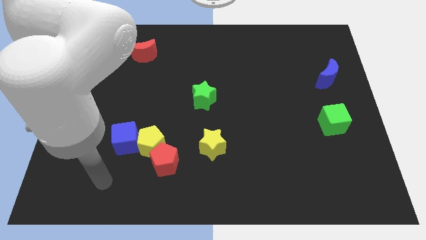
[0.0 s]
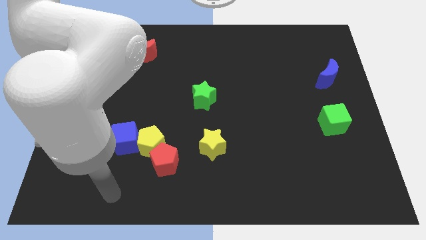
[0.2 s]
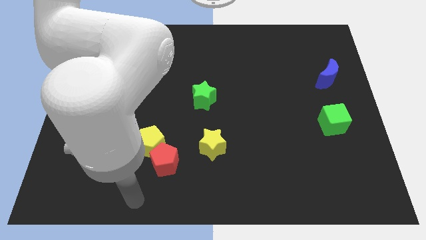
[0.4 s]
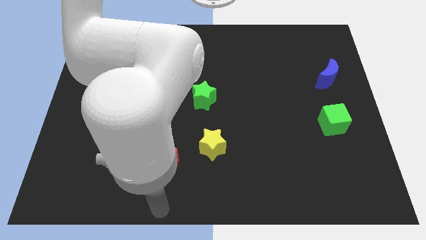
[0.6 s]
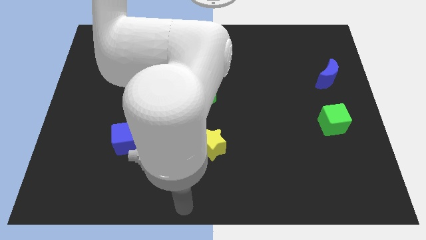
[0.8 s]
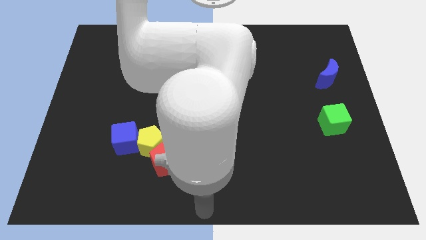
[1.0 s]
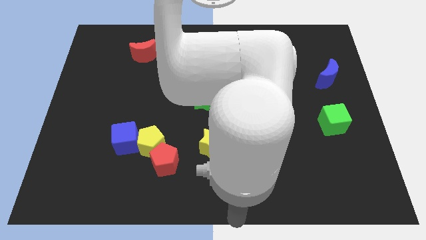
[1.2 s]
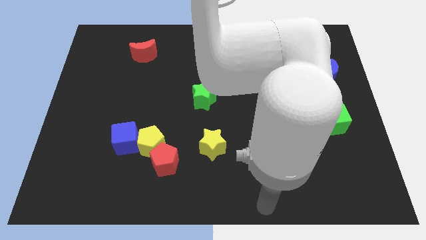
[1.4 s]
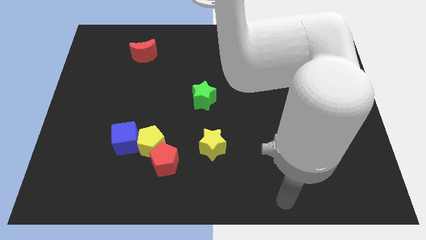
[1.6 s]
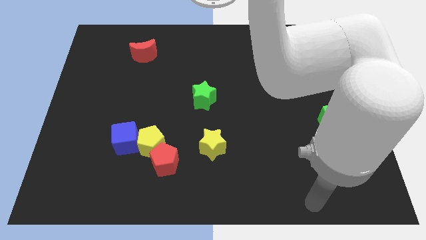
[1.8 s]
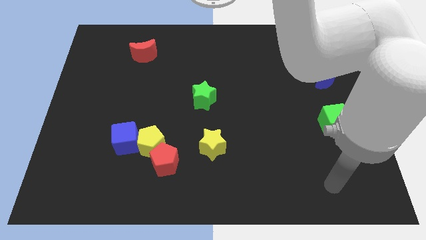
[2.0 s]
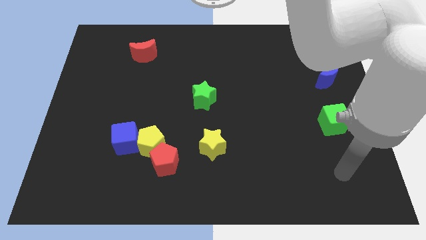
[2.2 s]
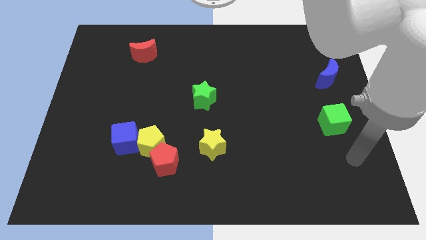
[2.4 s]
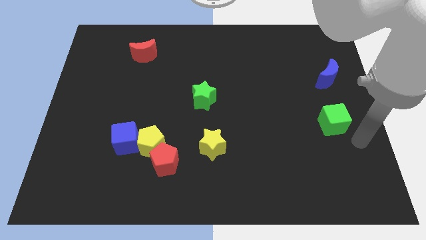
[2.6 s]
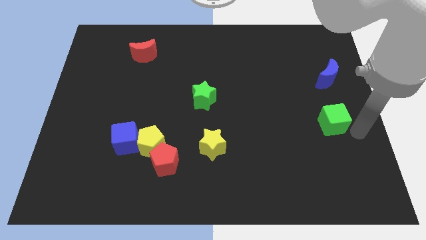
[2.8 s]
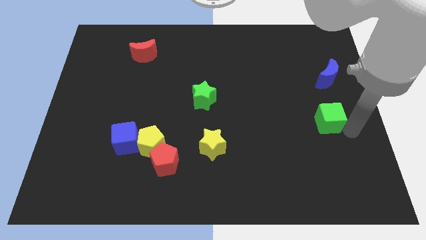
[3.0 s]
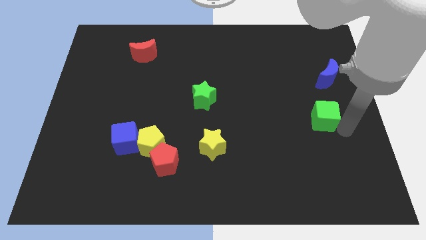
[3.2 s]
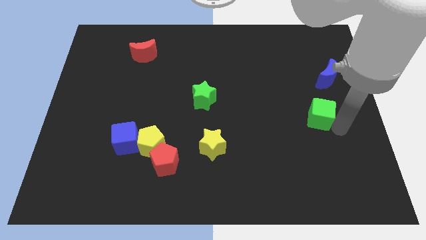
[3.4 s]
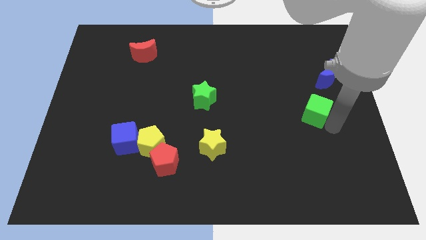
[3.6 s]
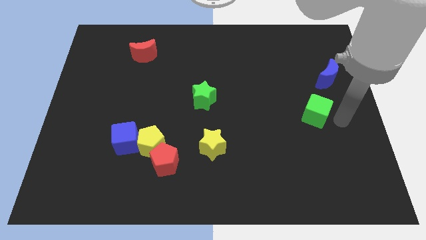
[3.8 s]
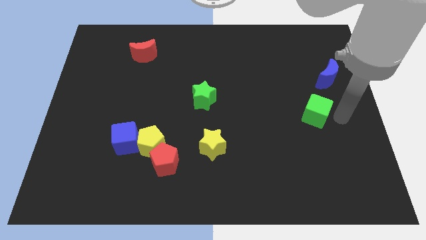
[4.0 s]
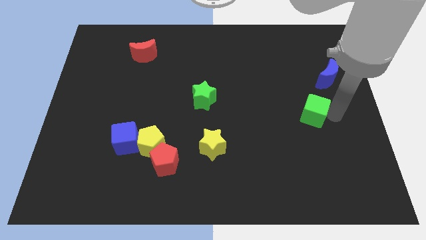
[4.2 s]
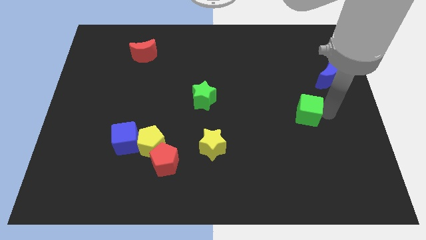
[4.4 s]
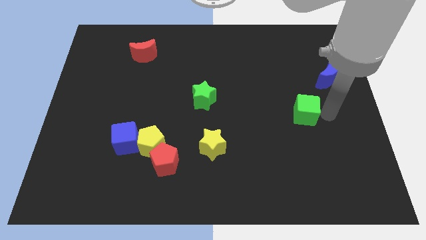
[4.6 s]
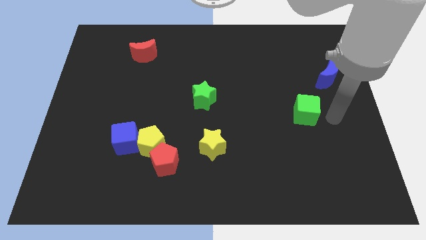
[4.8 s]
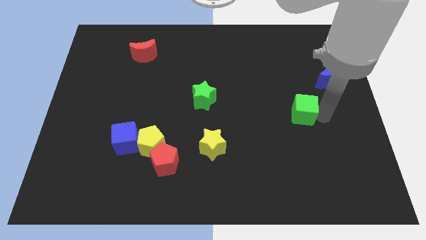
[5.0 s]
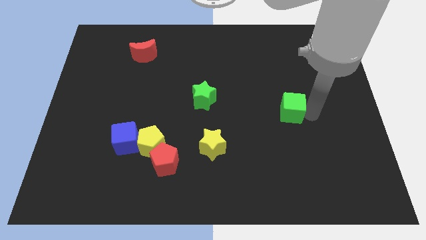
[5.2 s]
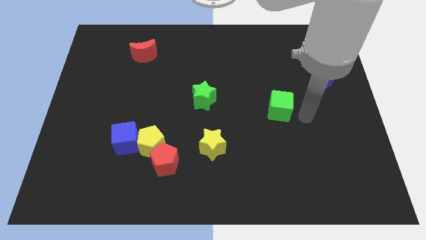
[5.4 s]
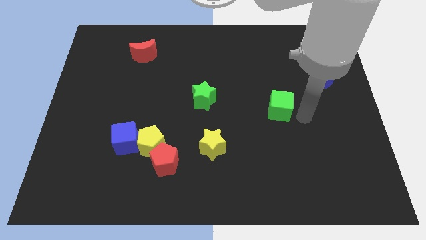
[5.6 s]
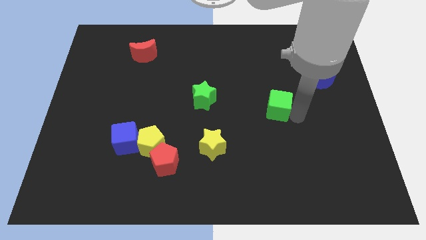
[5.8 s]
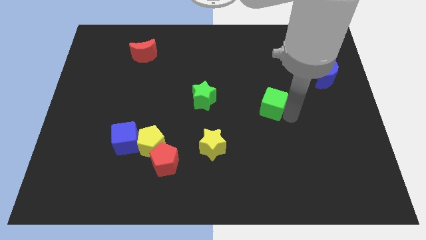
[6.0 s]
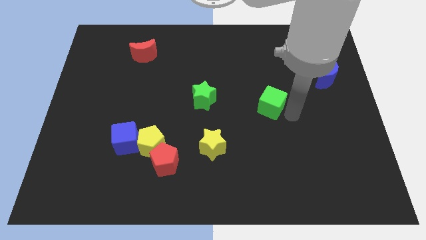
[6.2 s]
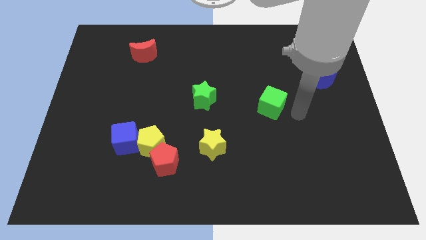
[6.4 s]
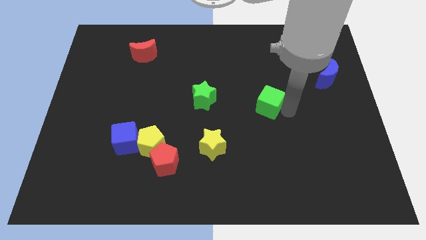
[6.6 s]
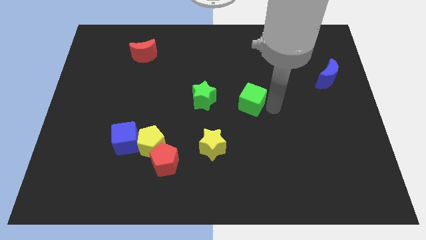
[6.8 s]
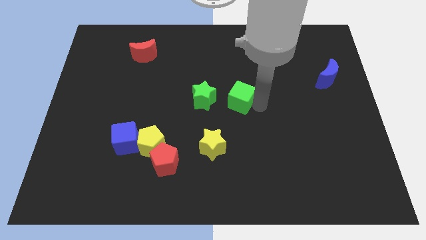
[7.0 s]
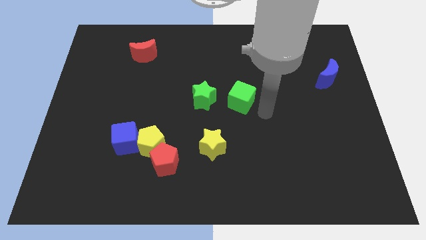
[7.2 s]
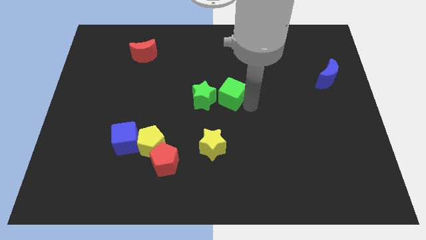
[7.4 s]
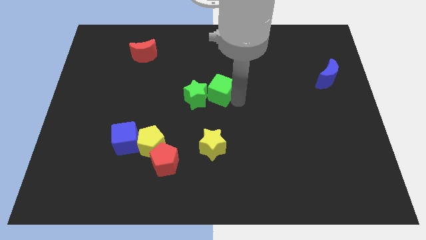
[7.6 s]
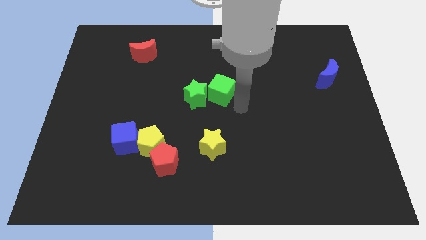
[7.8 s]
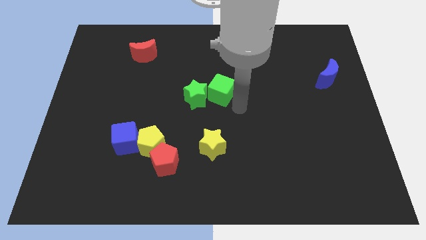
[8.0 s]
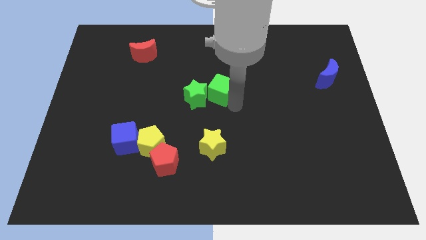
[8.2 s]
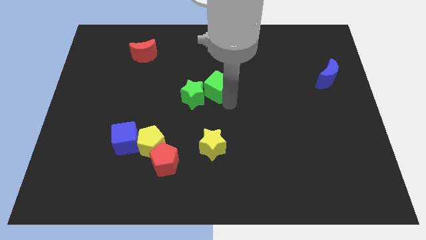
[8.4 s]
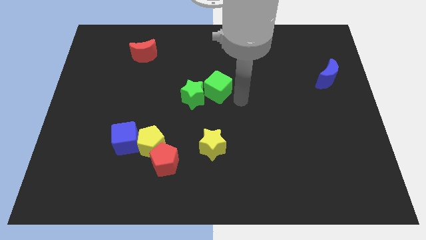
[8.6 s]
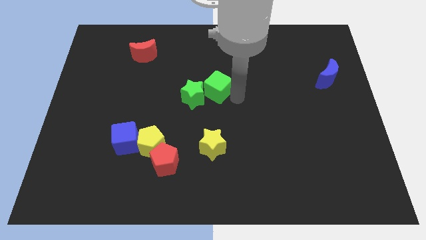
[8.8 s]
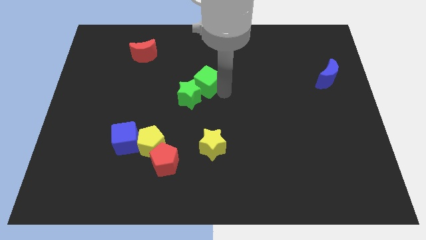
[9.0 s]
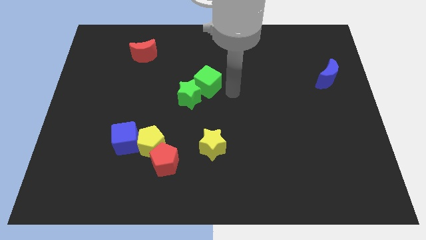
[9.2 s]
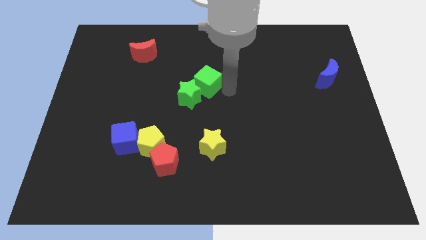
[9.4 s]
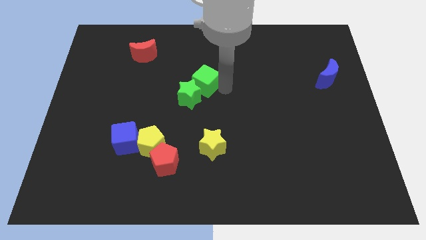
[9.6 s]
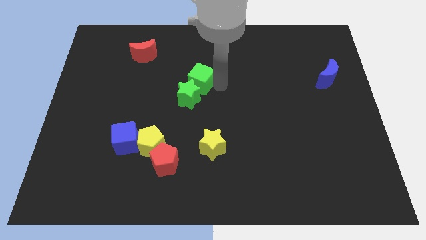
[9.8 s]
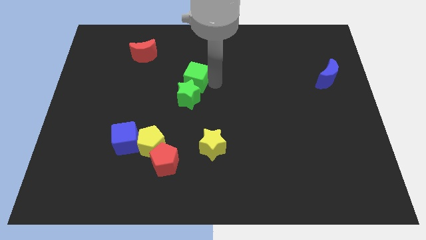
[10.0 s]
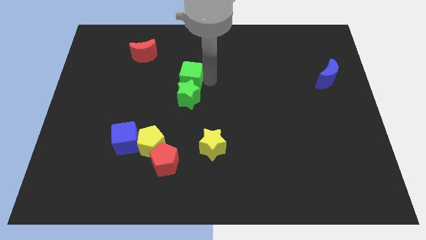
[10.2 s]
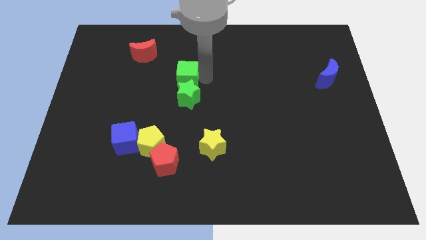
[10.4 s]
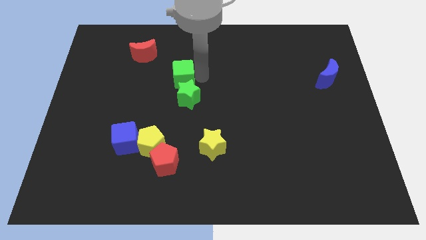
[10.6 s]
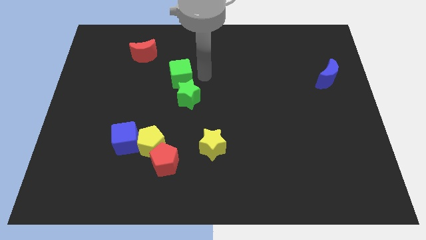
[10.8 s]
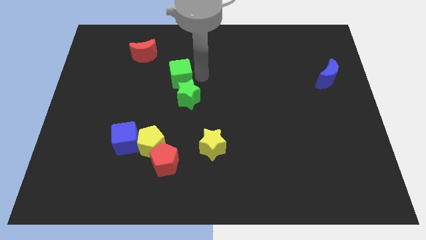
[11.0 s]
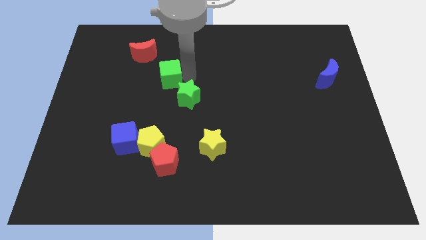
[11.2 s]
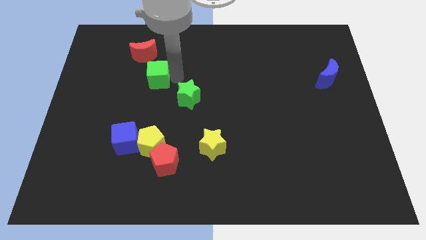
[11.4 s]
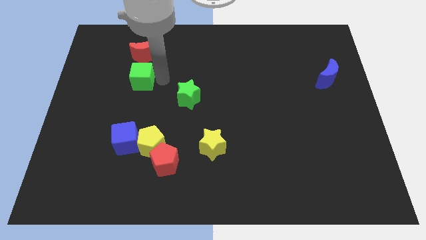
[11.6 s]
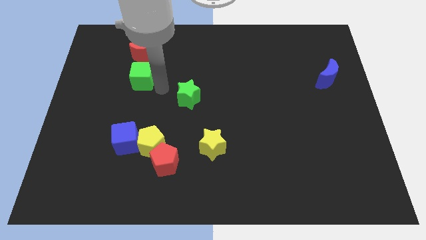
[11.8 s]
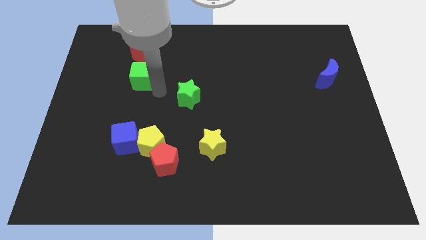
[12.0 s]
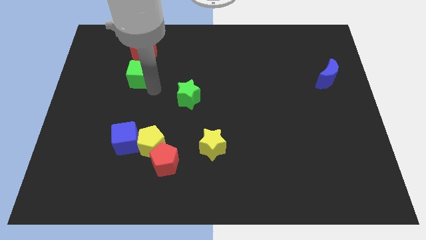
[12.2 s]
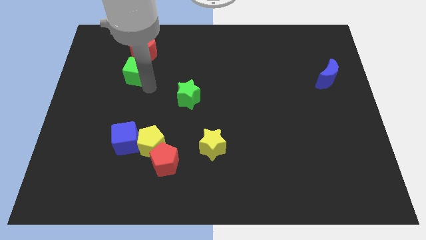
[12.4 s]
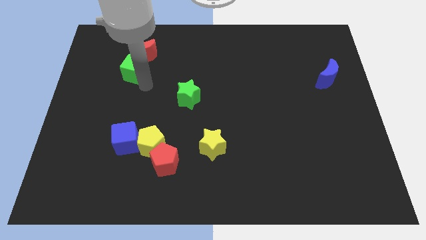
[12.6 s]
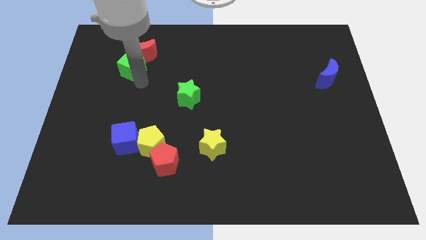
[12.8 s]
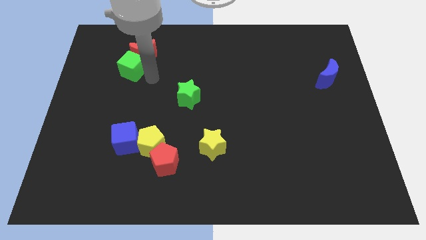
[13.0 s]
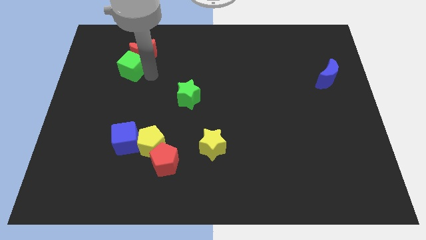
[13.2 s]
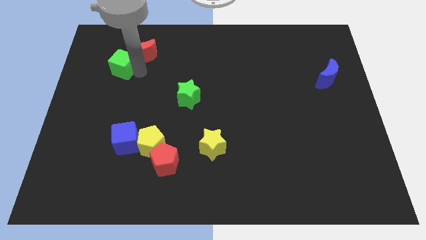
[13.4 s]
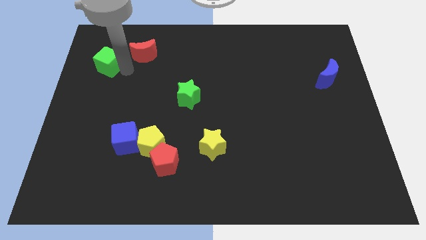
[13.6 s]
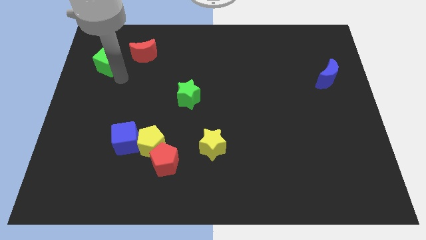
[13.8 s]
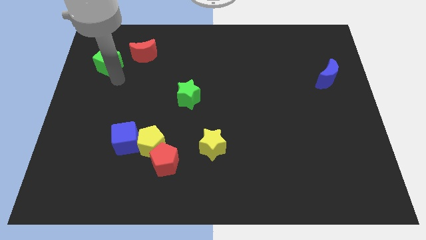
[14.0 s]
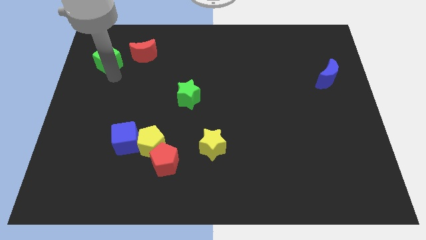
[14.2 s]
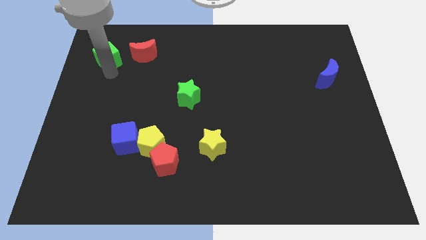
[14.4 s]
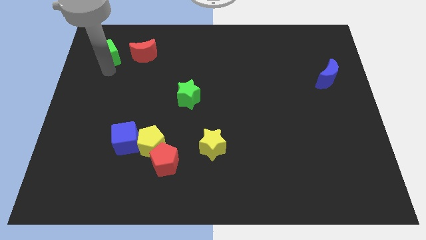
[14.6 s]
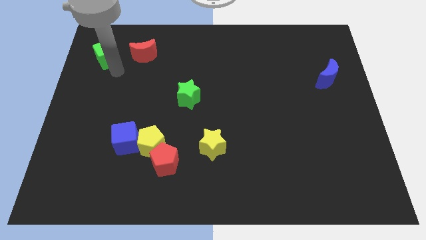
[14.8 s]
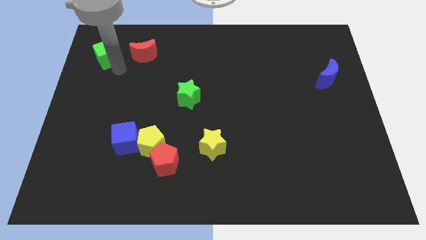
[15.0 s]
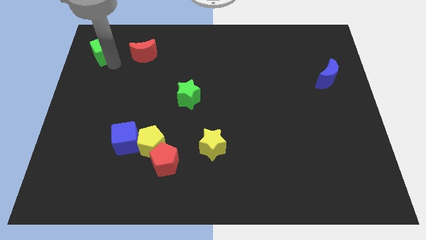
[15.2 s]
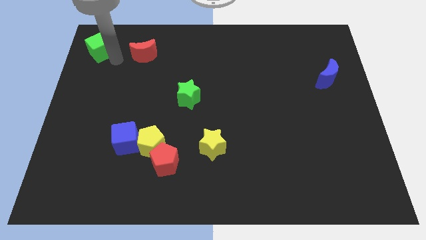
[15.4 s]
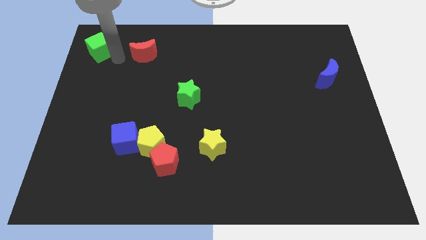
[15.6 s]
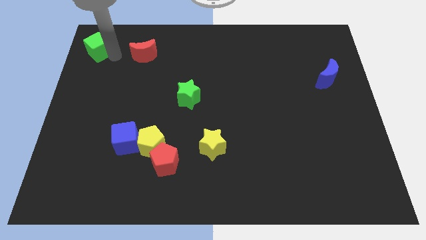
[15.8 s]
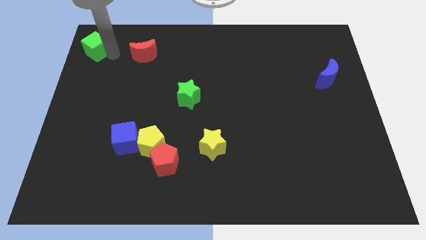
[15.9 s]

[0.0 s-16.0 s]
put the green cube to the top left
